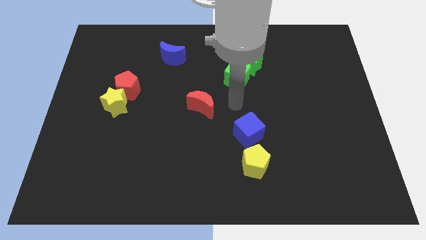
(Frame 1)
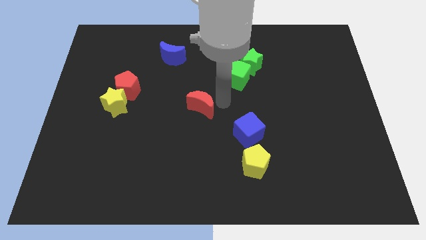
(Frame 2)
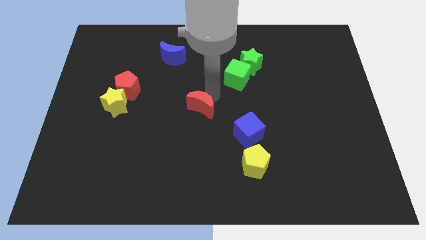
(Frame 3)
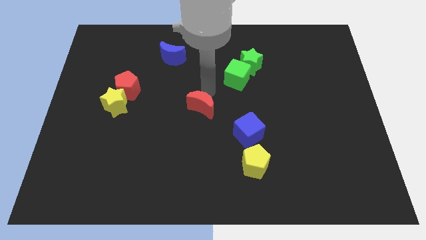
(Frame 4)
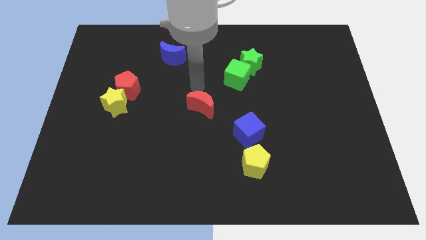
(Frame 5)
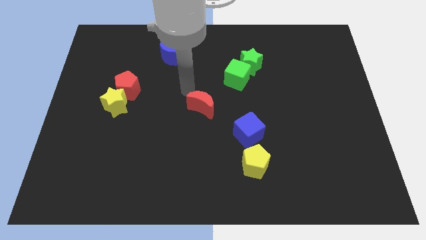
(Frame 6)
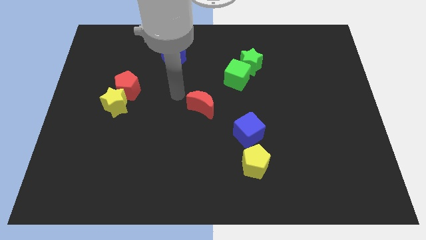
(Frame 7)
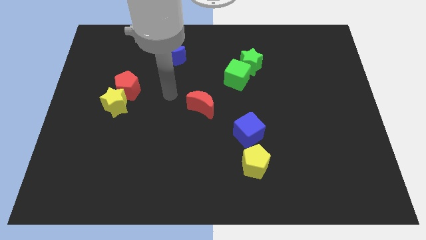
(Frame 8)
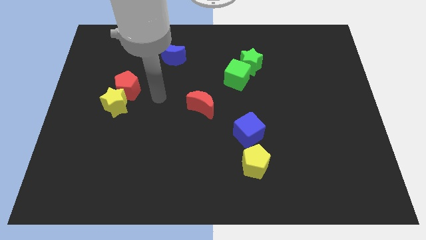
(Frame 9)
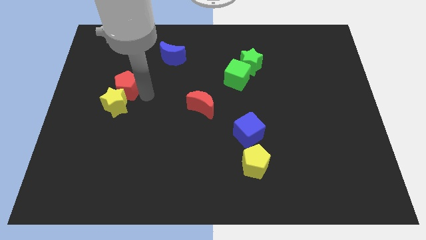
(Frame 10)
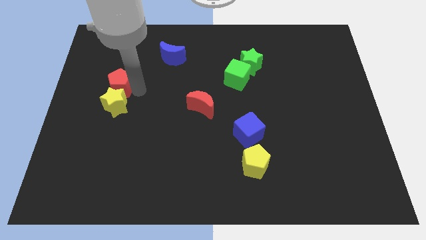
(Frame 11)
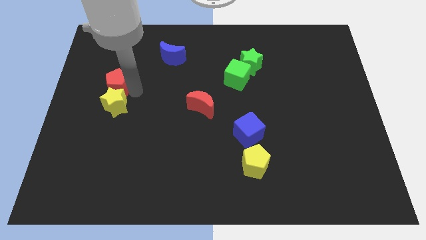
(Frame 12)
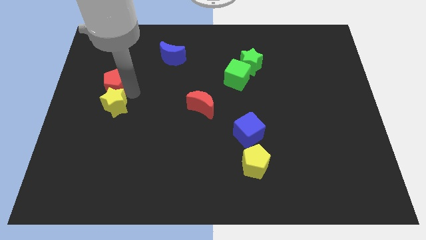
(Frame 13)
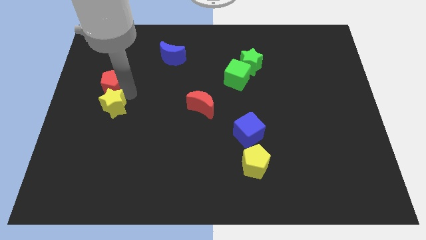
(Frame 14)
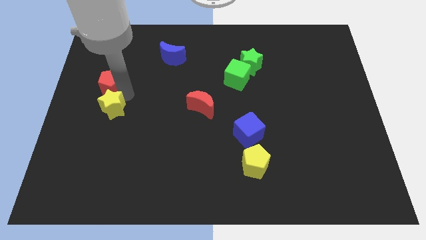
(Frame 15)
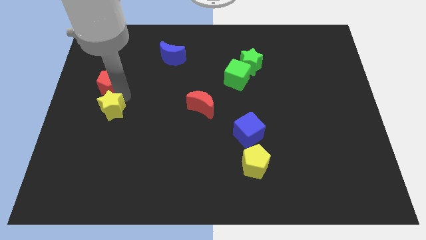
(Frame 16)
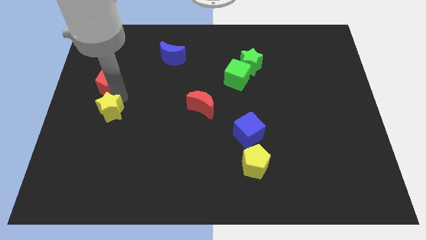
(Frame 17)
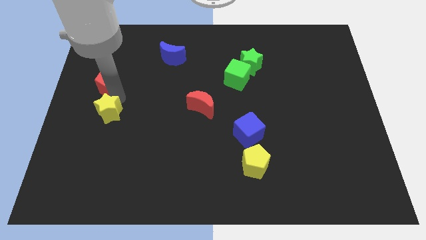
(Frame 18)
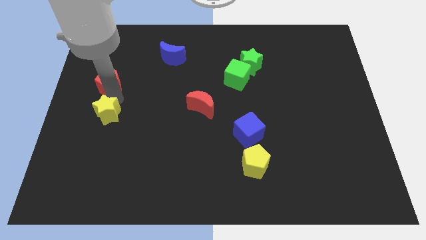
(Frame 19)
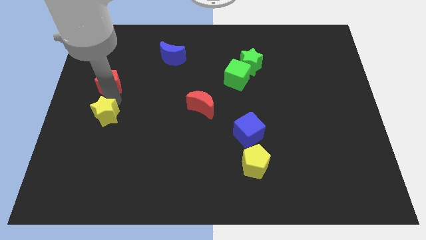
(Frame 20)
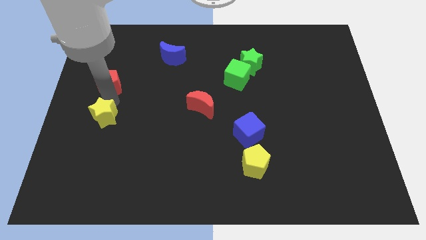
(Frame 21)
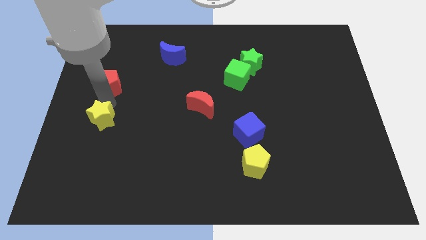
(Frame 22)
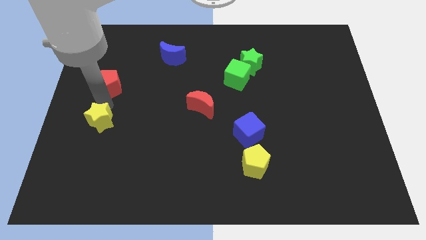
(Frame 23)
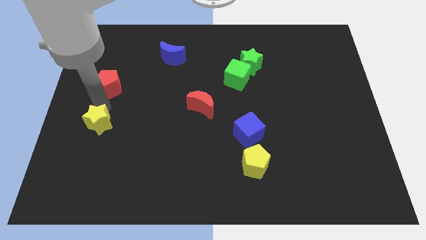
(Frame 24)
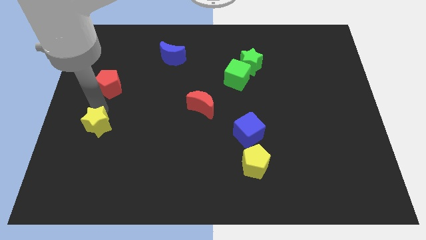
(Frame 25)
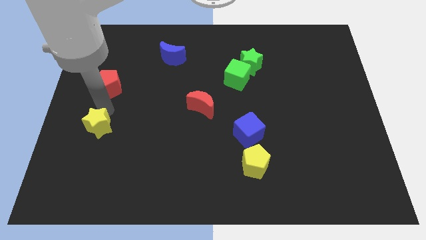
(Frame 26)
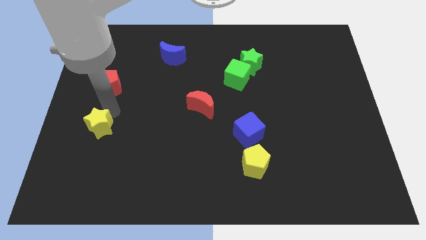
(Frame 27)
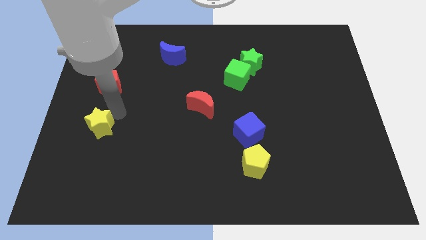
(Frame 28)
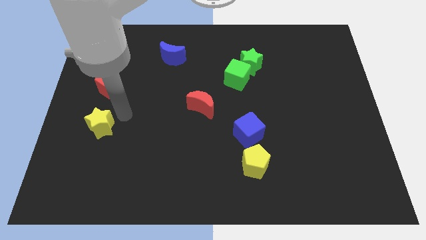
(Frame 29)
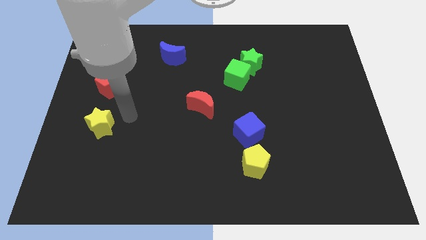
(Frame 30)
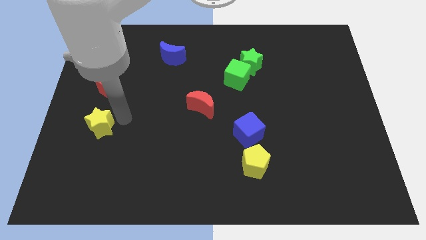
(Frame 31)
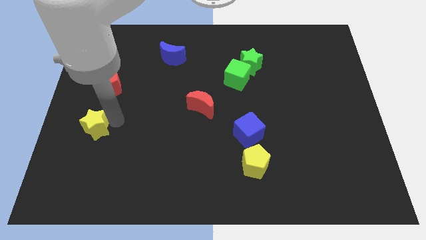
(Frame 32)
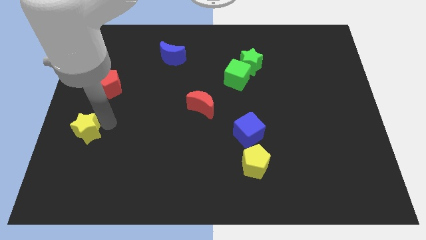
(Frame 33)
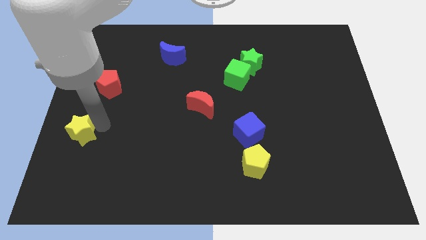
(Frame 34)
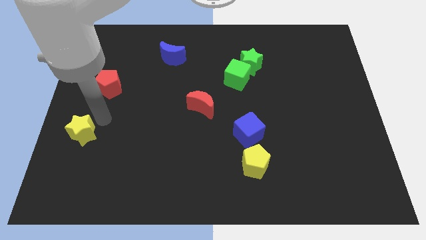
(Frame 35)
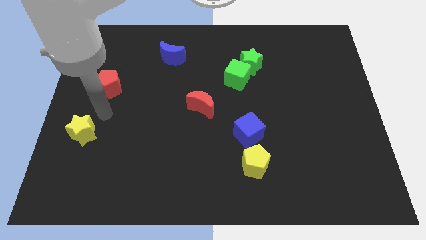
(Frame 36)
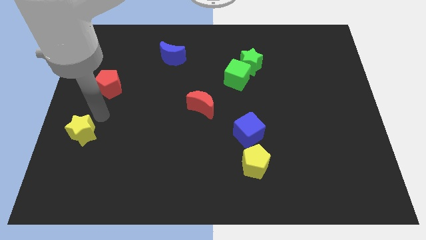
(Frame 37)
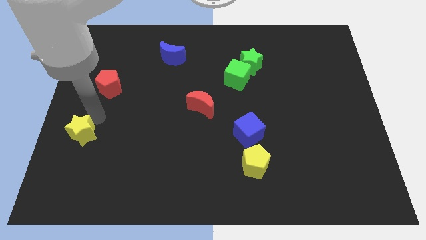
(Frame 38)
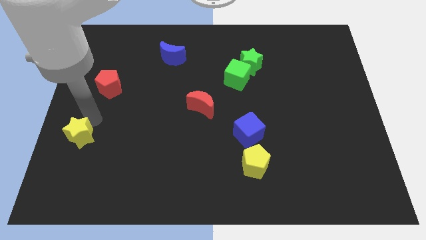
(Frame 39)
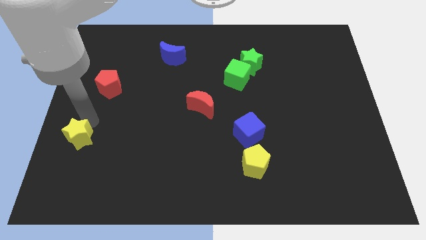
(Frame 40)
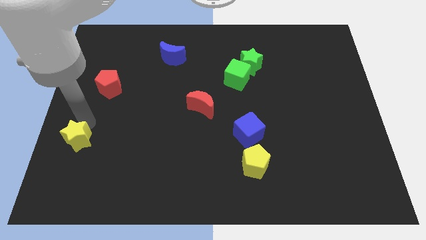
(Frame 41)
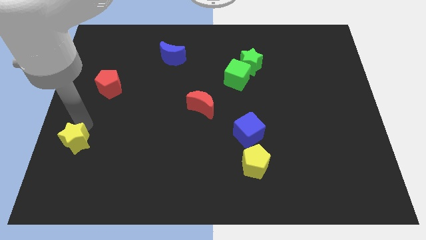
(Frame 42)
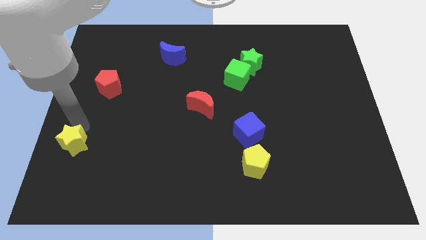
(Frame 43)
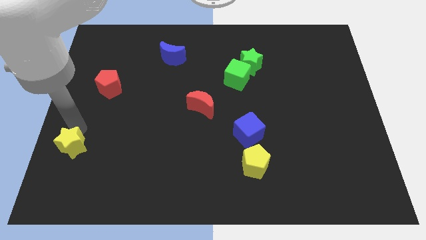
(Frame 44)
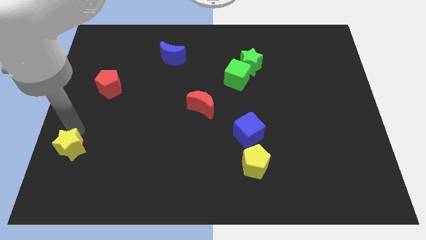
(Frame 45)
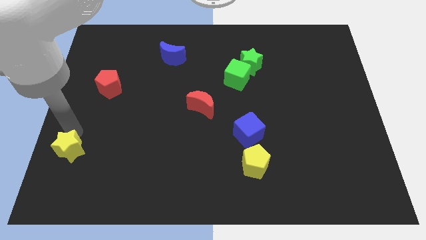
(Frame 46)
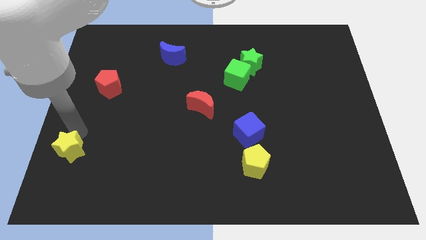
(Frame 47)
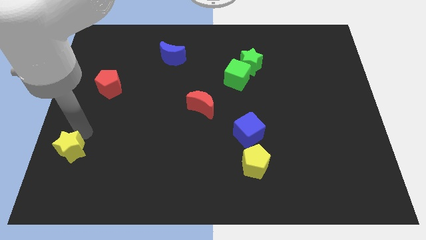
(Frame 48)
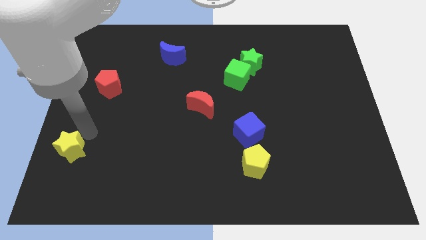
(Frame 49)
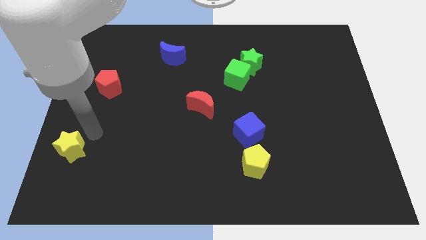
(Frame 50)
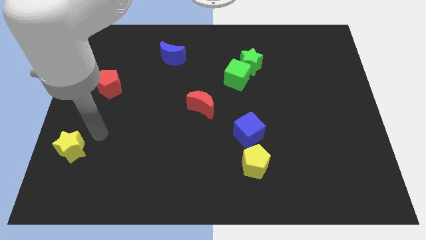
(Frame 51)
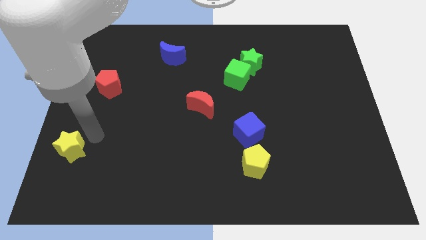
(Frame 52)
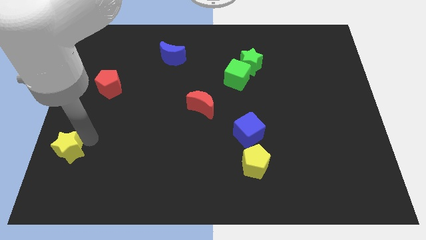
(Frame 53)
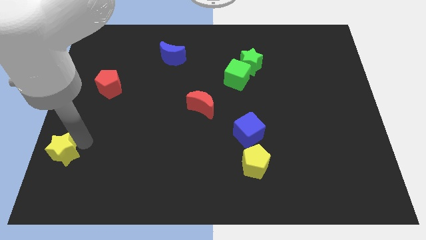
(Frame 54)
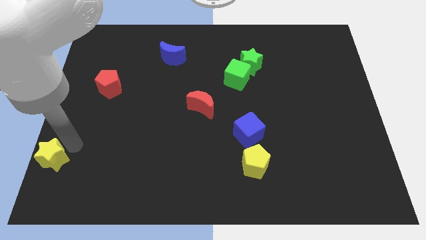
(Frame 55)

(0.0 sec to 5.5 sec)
slide the yellow star to the bottom left corner

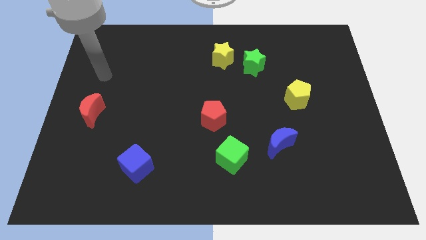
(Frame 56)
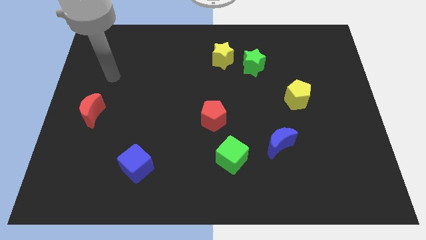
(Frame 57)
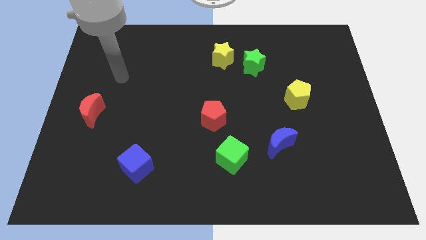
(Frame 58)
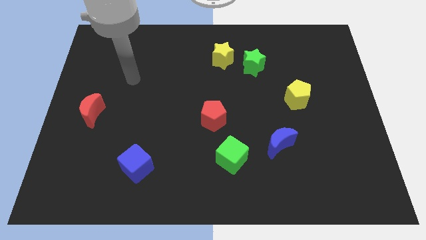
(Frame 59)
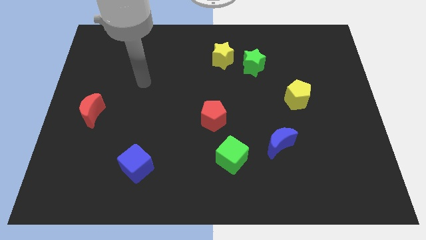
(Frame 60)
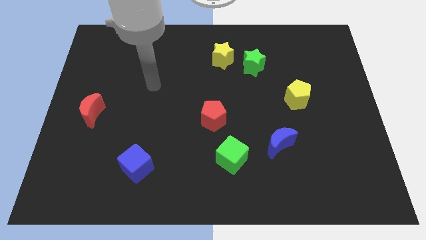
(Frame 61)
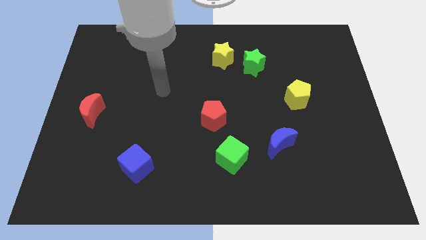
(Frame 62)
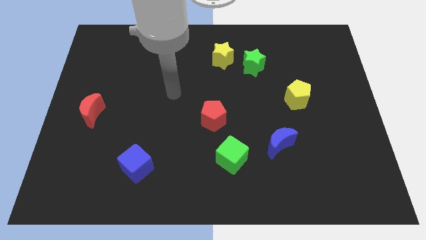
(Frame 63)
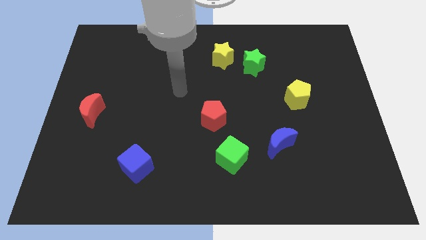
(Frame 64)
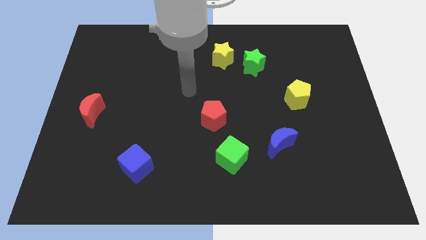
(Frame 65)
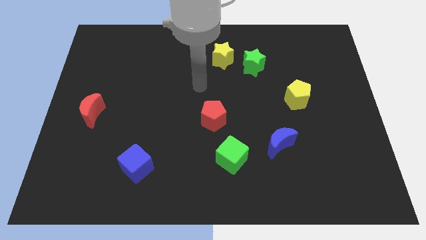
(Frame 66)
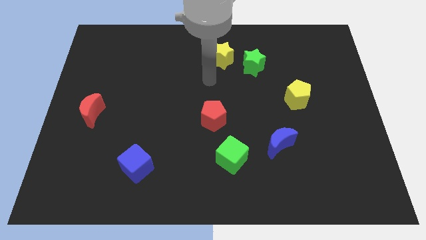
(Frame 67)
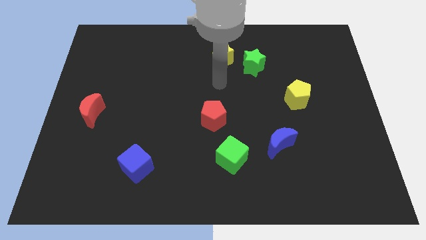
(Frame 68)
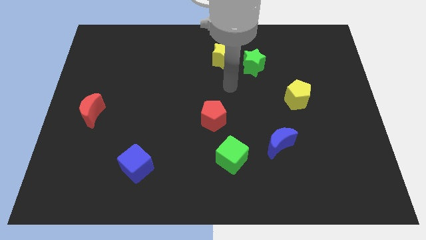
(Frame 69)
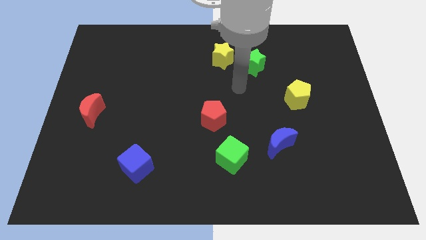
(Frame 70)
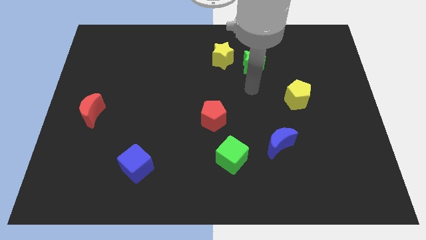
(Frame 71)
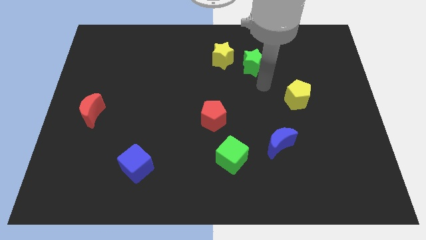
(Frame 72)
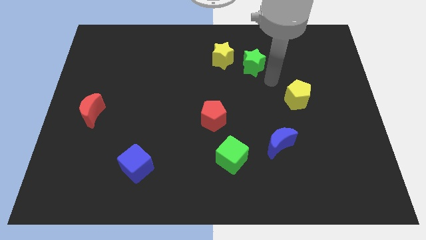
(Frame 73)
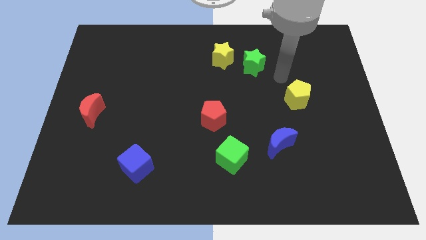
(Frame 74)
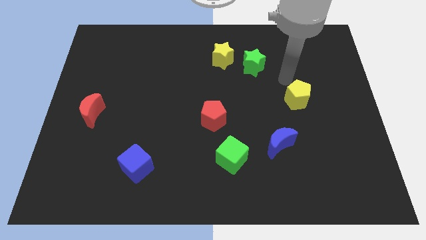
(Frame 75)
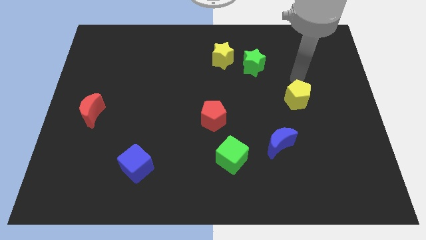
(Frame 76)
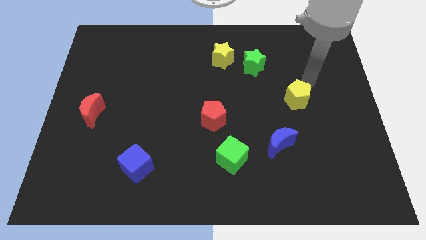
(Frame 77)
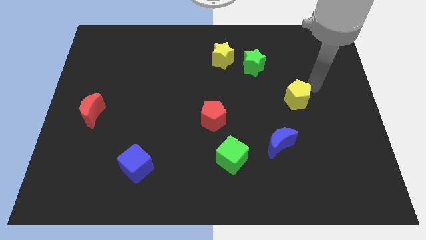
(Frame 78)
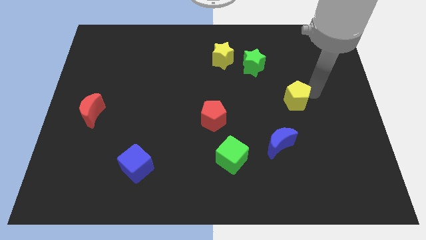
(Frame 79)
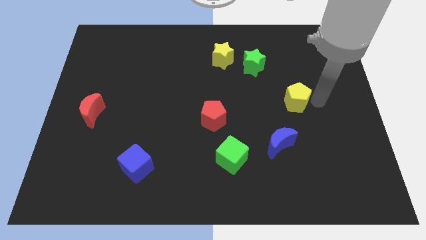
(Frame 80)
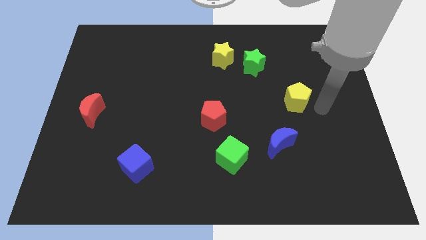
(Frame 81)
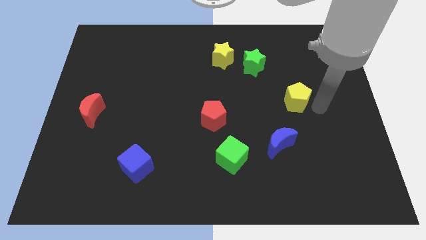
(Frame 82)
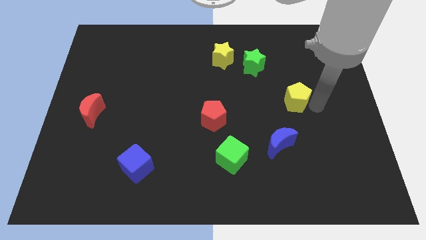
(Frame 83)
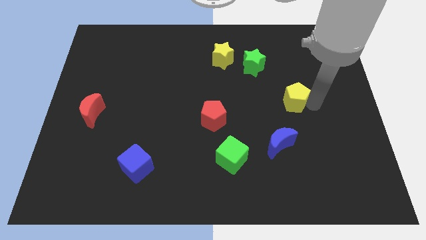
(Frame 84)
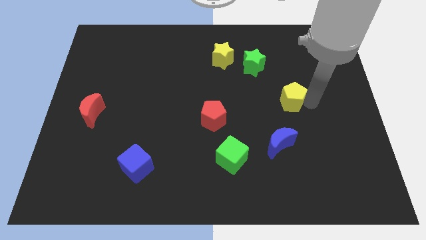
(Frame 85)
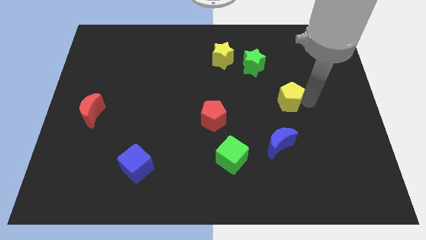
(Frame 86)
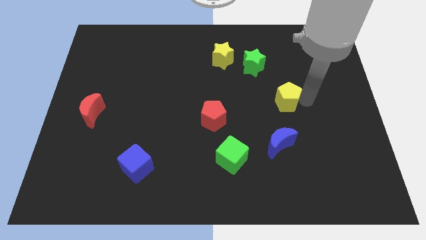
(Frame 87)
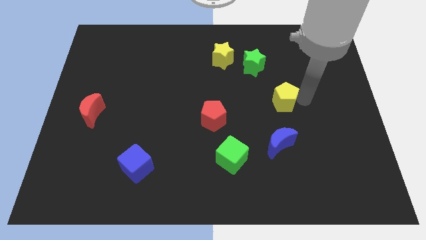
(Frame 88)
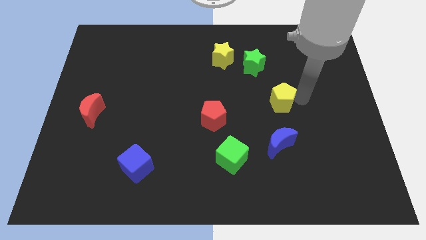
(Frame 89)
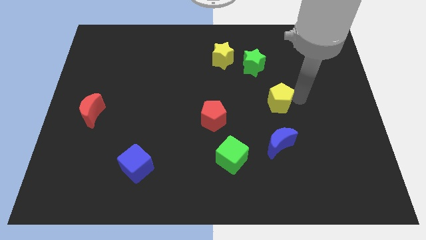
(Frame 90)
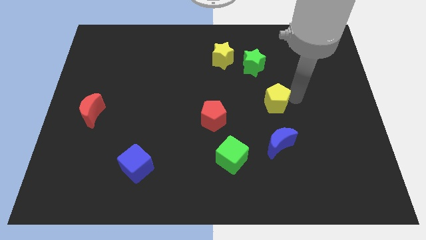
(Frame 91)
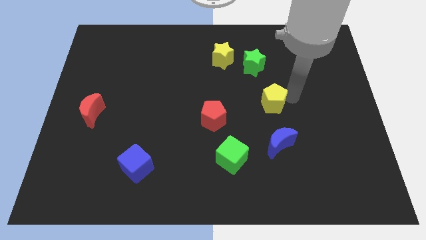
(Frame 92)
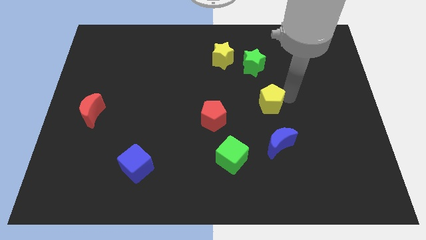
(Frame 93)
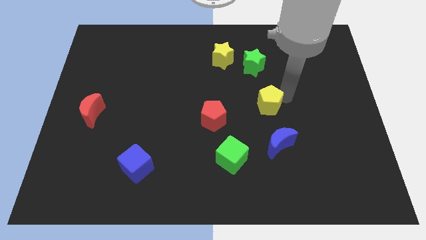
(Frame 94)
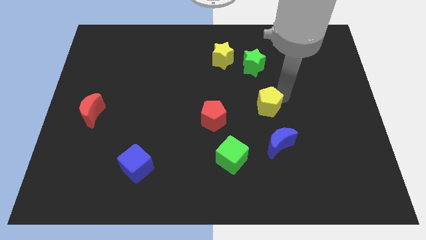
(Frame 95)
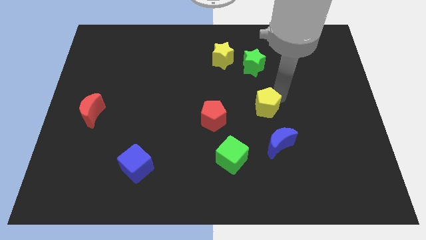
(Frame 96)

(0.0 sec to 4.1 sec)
put the yellow pentagon to the middle of the board
